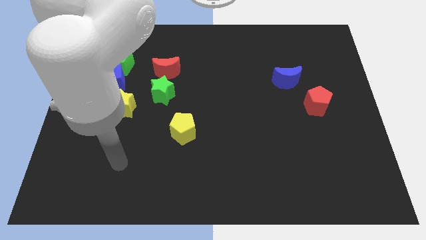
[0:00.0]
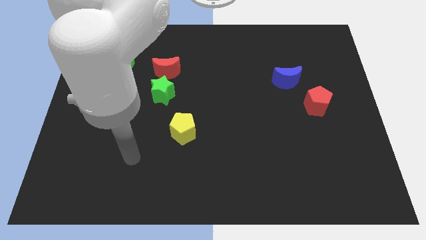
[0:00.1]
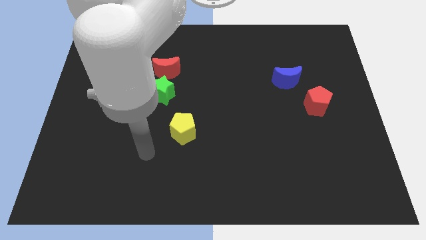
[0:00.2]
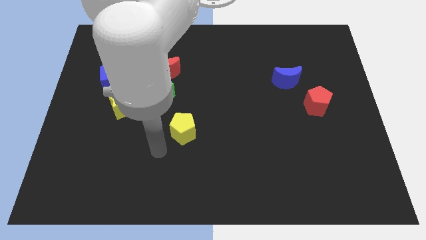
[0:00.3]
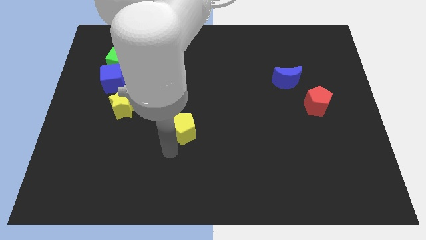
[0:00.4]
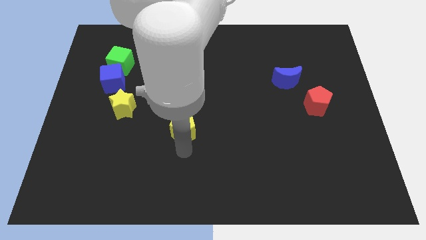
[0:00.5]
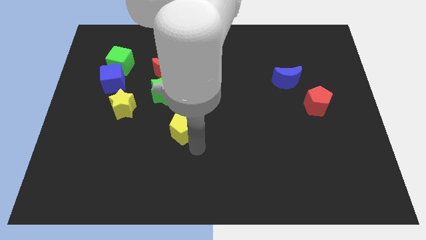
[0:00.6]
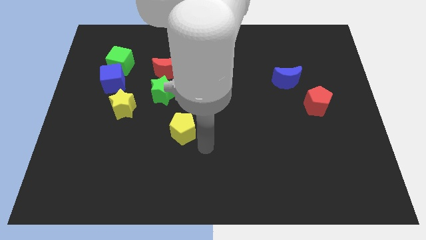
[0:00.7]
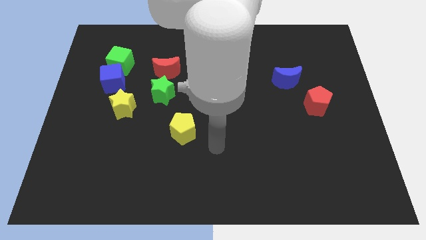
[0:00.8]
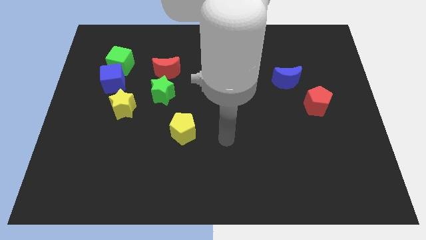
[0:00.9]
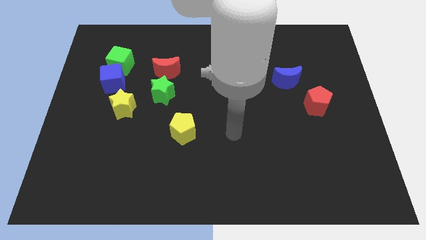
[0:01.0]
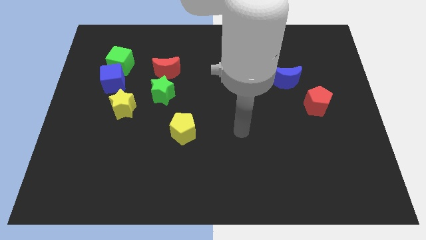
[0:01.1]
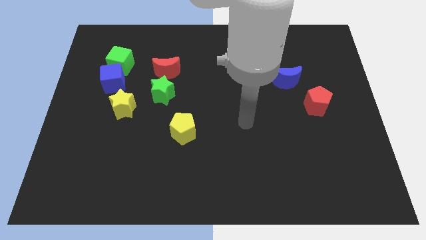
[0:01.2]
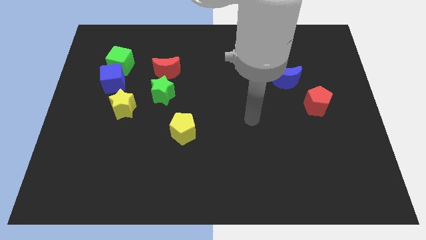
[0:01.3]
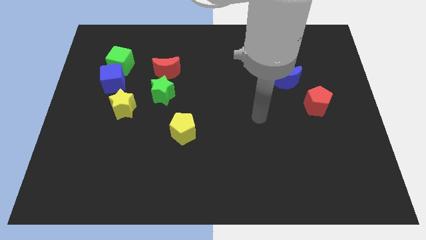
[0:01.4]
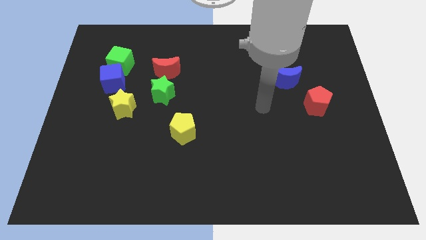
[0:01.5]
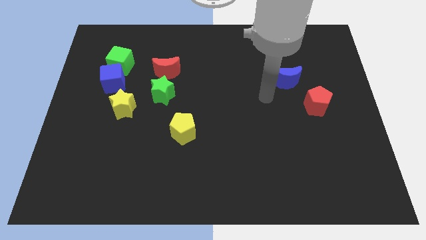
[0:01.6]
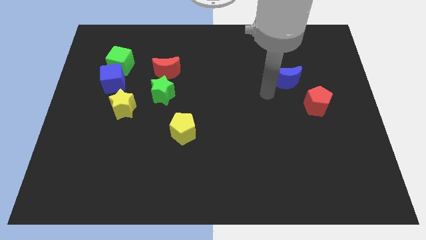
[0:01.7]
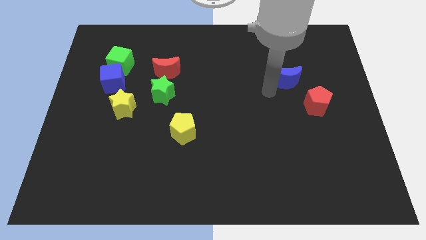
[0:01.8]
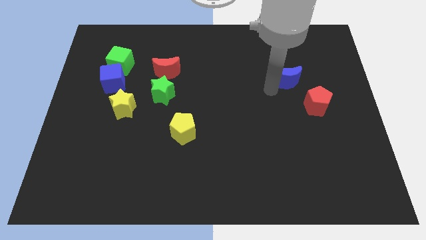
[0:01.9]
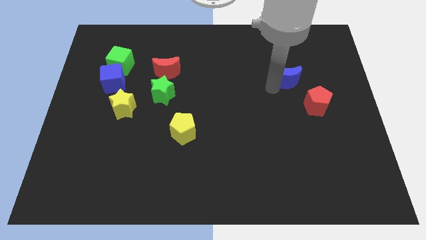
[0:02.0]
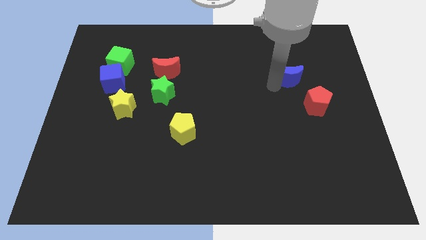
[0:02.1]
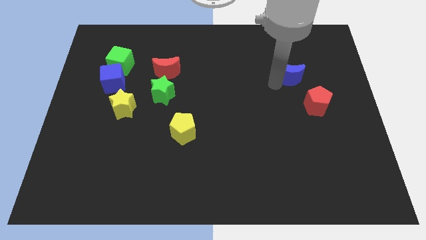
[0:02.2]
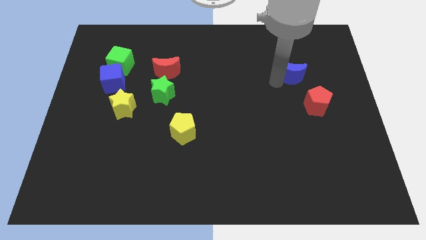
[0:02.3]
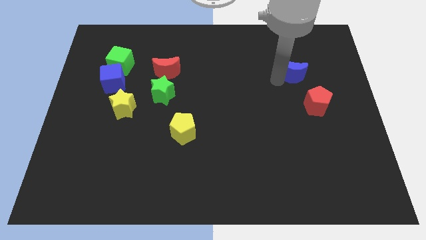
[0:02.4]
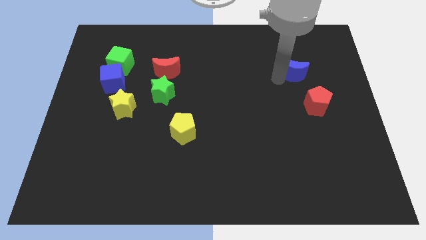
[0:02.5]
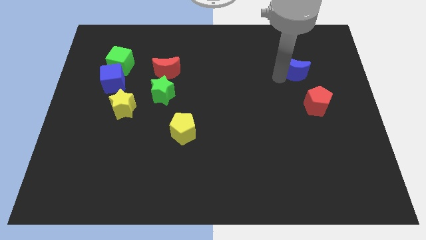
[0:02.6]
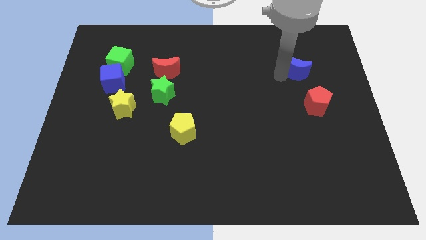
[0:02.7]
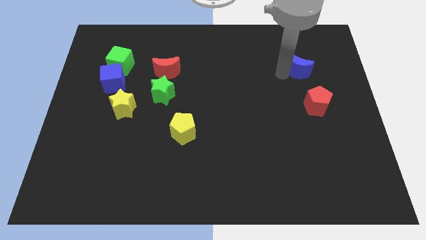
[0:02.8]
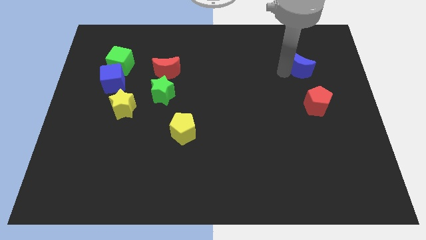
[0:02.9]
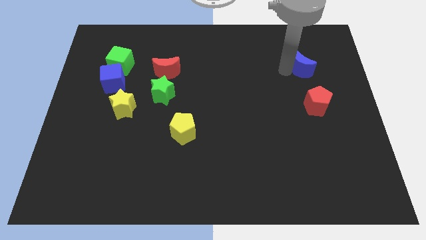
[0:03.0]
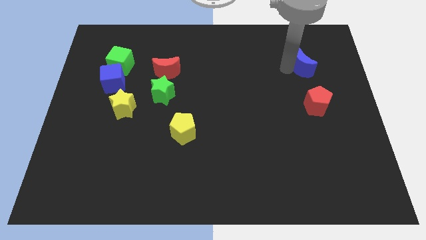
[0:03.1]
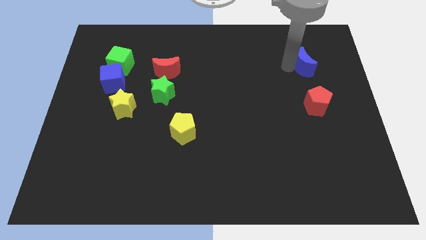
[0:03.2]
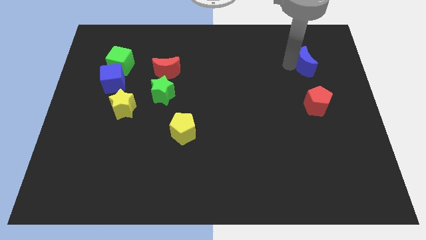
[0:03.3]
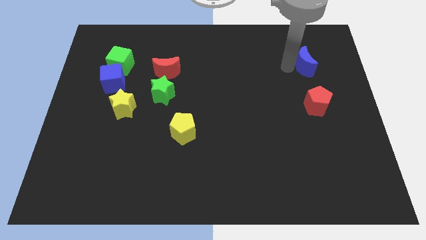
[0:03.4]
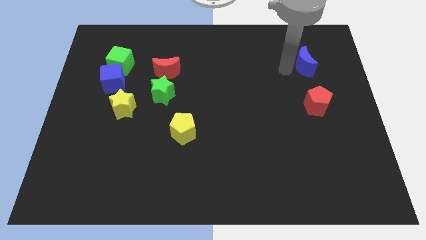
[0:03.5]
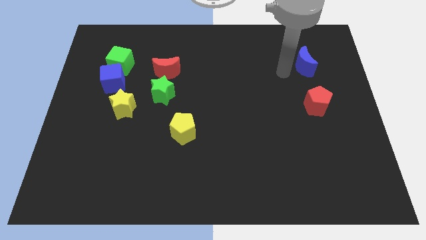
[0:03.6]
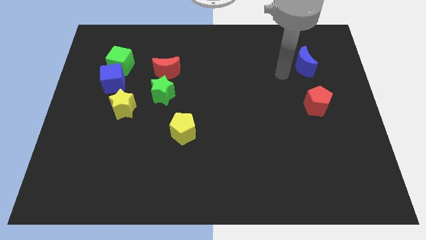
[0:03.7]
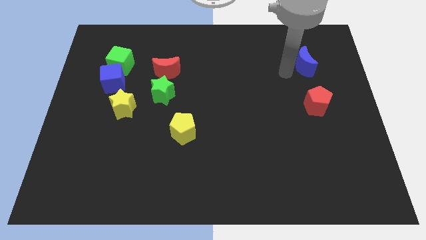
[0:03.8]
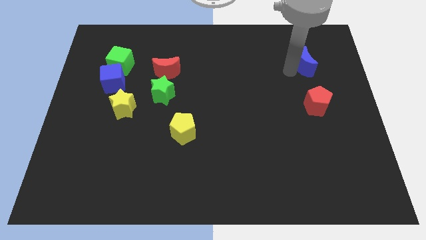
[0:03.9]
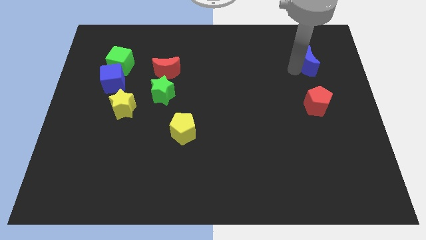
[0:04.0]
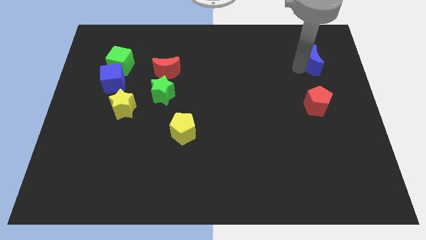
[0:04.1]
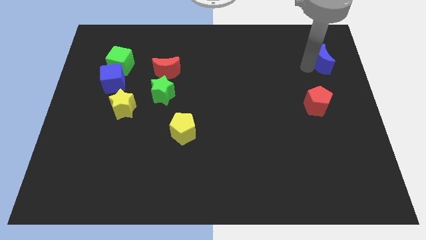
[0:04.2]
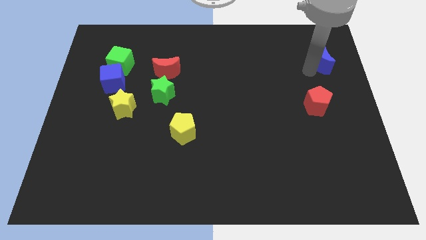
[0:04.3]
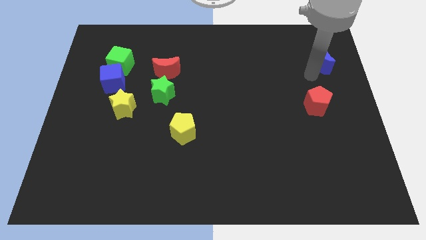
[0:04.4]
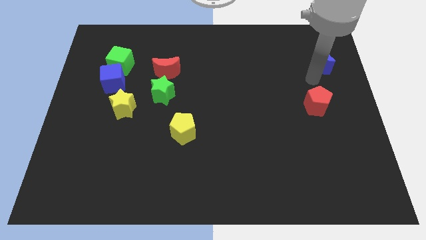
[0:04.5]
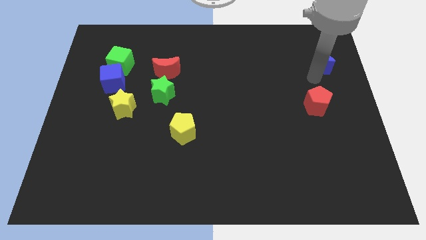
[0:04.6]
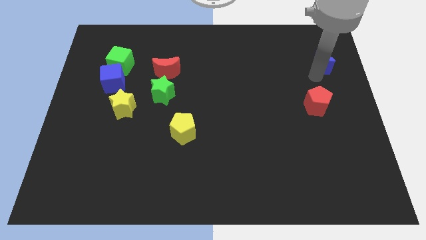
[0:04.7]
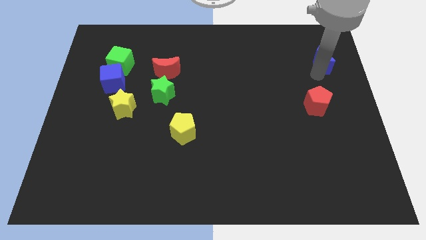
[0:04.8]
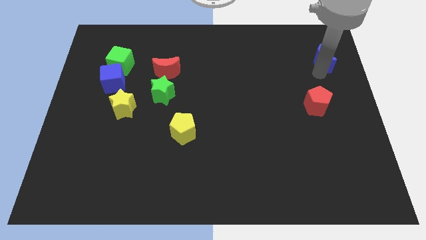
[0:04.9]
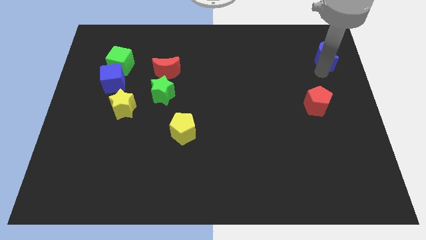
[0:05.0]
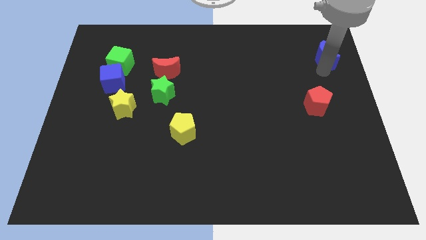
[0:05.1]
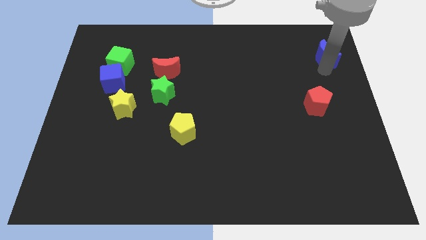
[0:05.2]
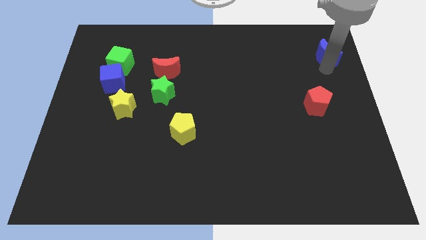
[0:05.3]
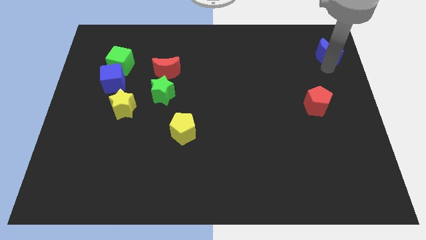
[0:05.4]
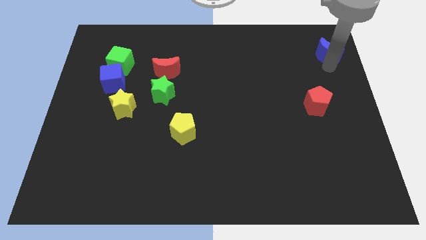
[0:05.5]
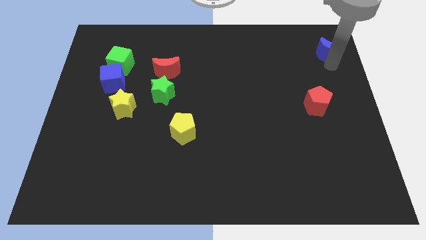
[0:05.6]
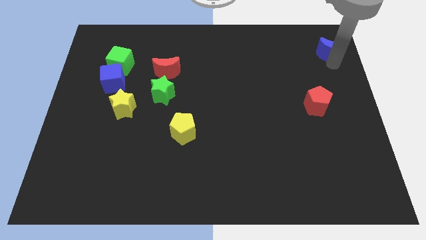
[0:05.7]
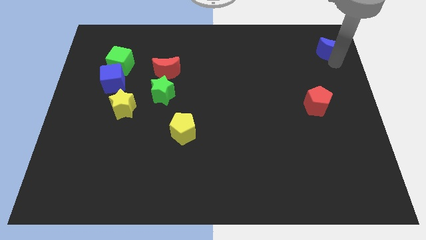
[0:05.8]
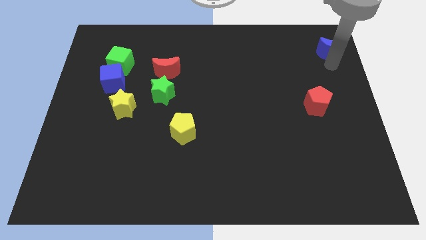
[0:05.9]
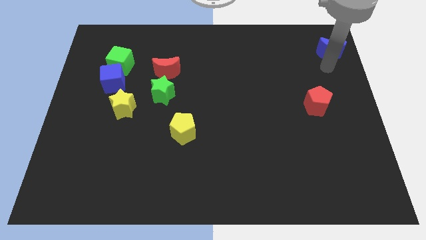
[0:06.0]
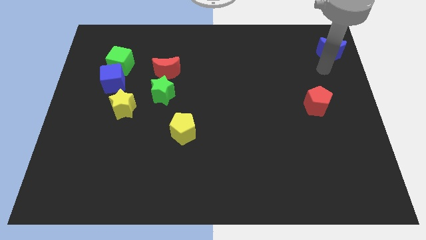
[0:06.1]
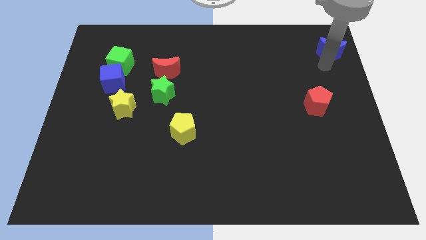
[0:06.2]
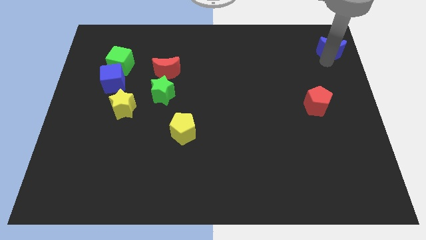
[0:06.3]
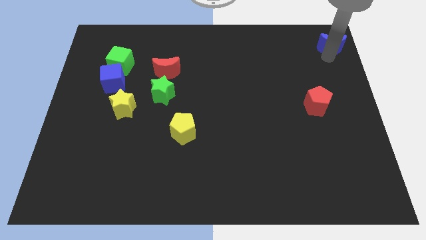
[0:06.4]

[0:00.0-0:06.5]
put the blue moon to the upper right corner

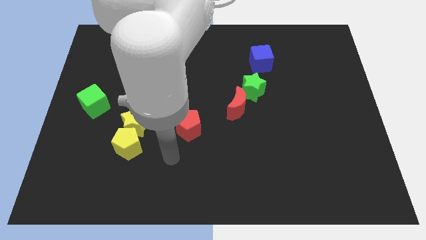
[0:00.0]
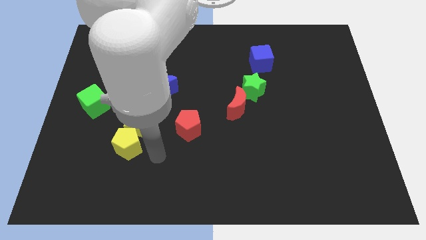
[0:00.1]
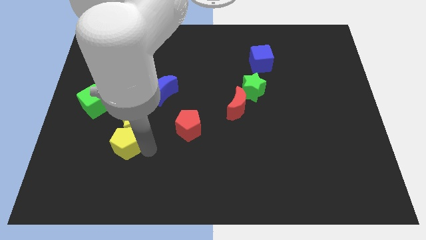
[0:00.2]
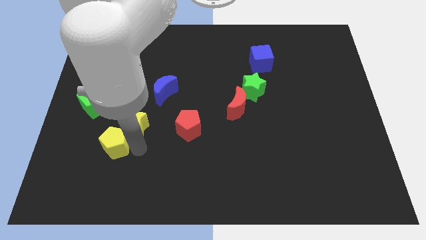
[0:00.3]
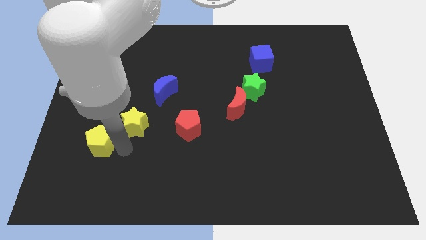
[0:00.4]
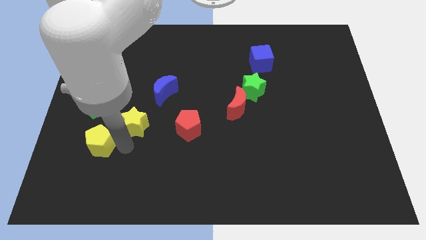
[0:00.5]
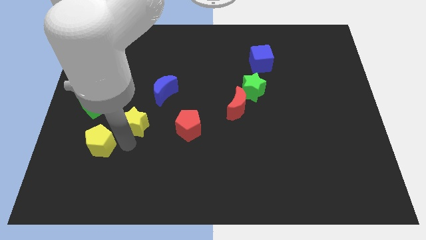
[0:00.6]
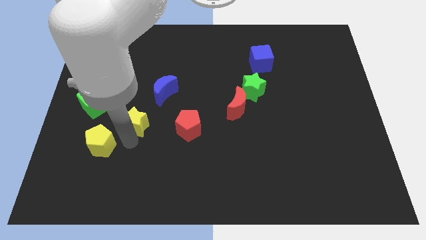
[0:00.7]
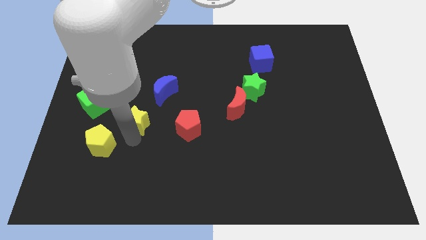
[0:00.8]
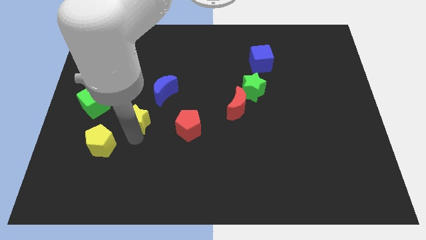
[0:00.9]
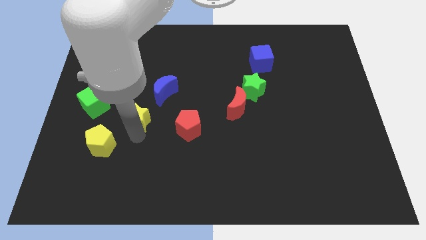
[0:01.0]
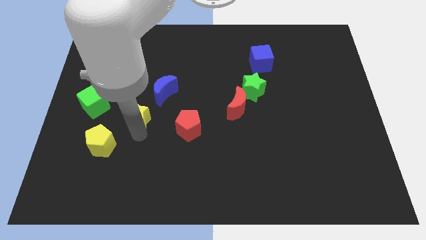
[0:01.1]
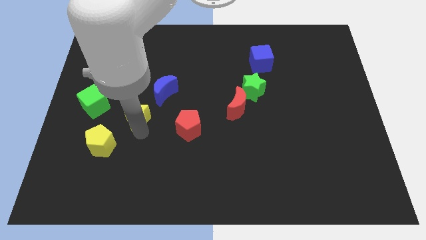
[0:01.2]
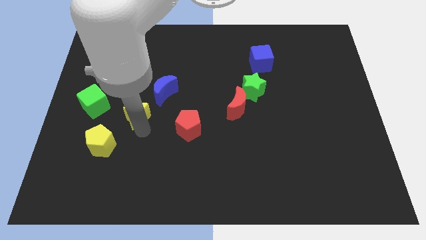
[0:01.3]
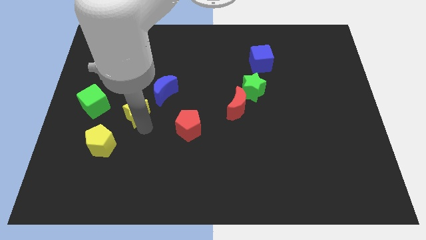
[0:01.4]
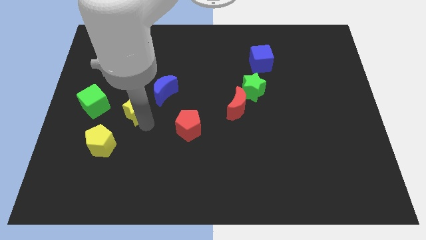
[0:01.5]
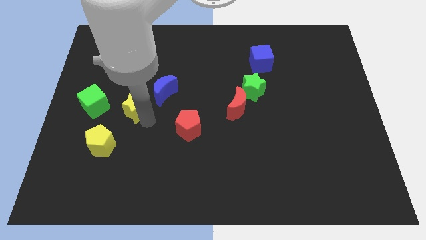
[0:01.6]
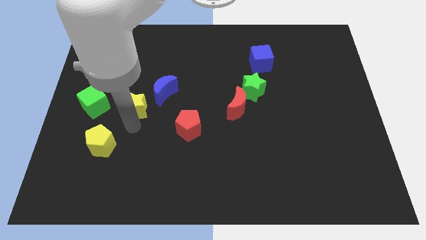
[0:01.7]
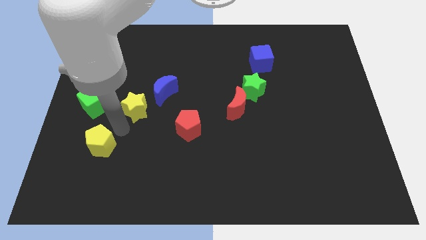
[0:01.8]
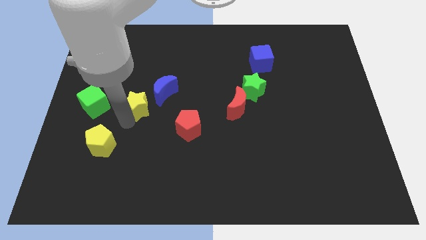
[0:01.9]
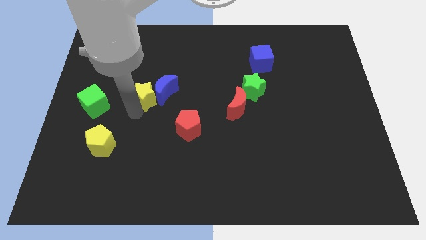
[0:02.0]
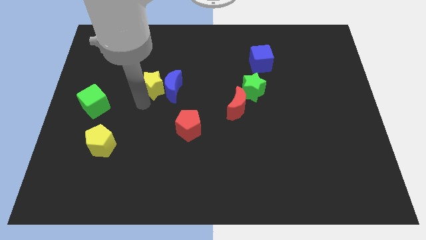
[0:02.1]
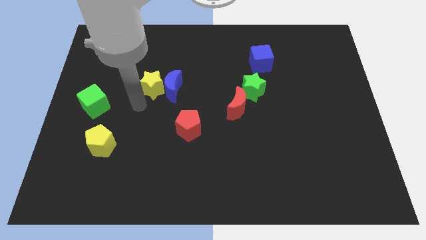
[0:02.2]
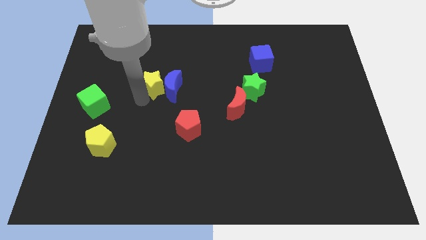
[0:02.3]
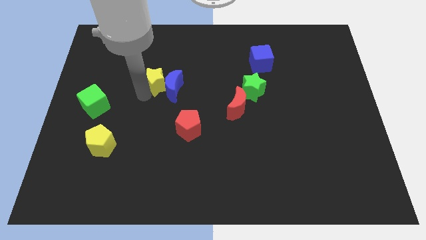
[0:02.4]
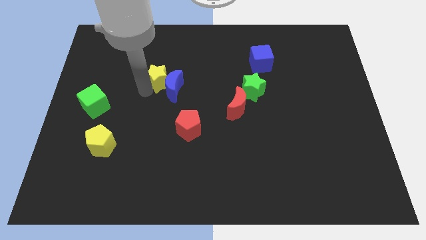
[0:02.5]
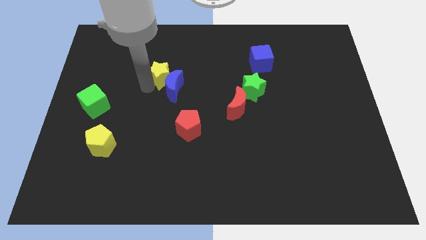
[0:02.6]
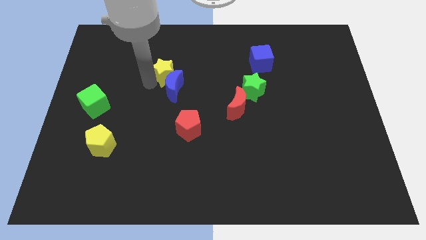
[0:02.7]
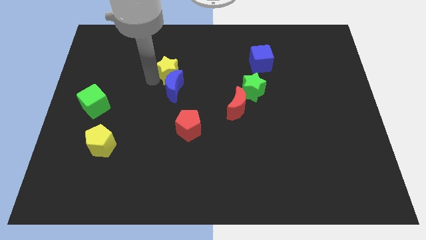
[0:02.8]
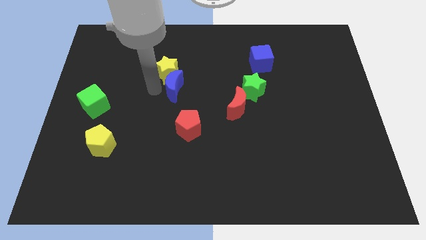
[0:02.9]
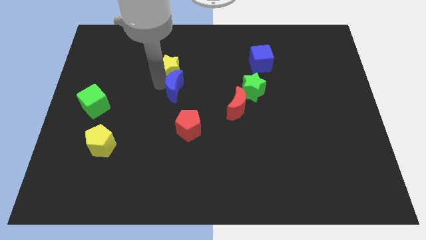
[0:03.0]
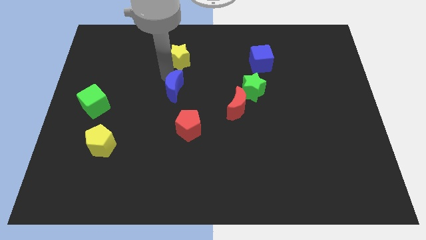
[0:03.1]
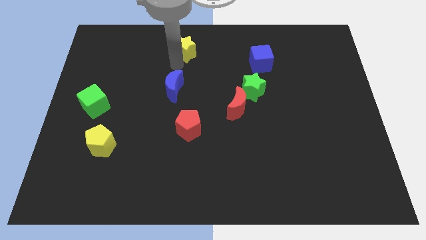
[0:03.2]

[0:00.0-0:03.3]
push the yellow star to the top side
